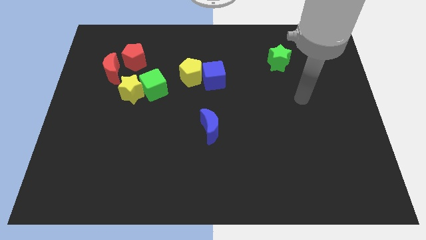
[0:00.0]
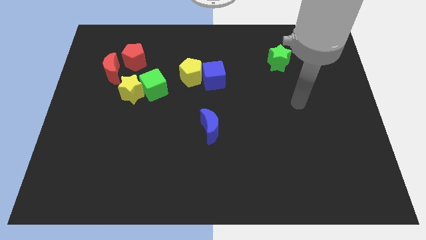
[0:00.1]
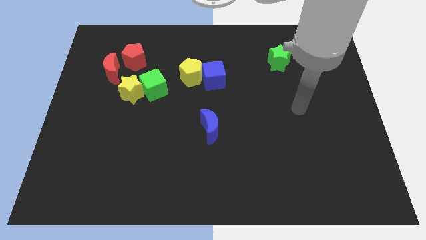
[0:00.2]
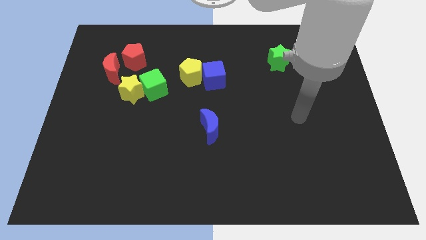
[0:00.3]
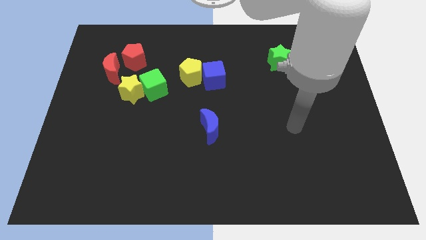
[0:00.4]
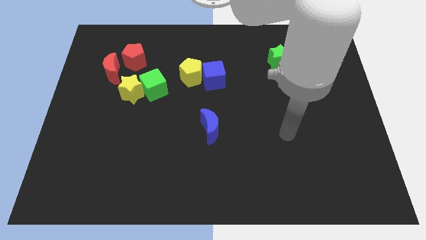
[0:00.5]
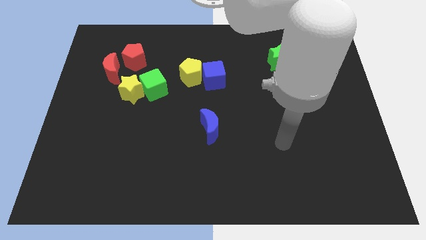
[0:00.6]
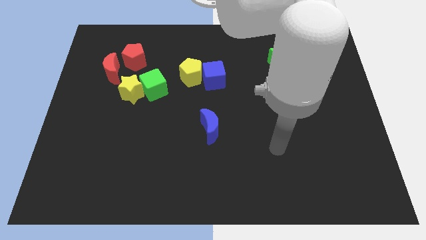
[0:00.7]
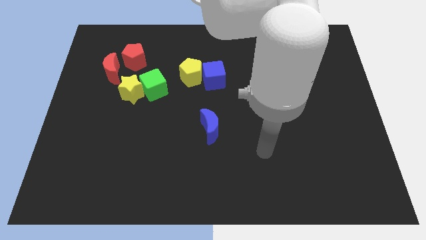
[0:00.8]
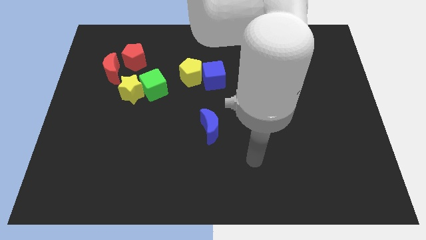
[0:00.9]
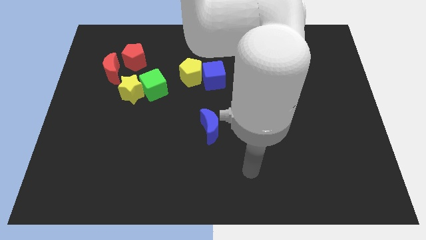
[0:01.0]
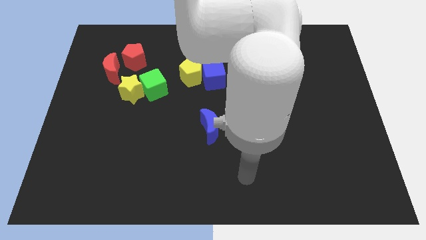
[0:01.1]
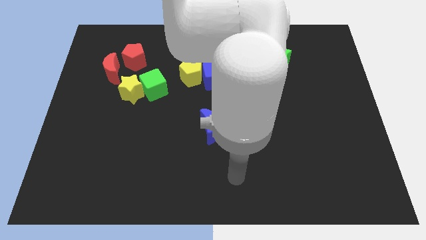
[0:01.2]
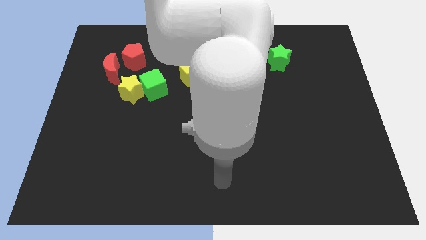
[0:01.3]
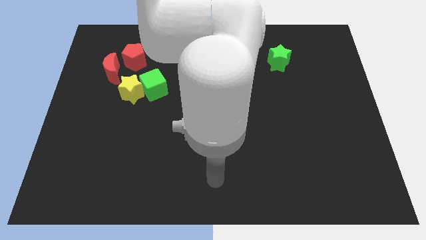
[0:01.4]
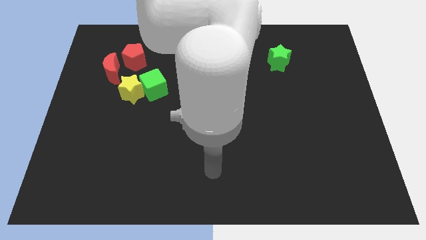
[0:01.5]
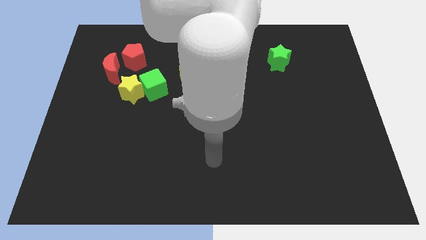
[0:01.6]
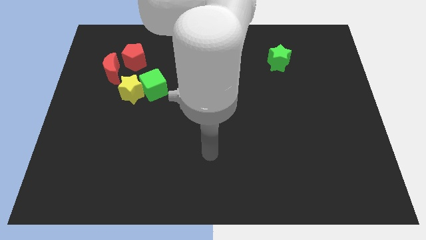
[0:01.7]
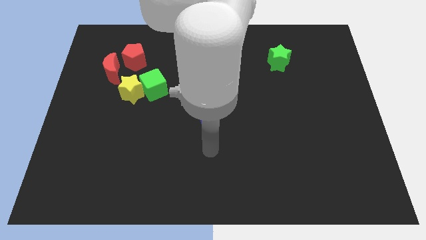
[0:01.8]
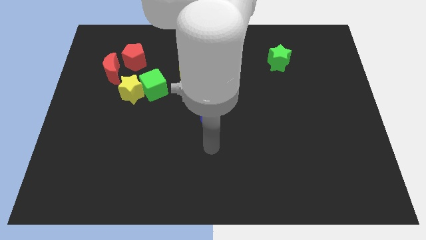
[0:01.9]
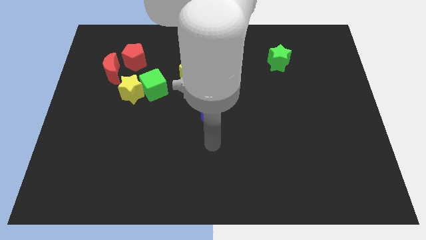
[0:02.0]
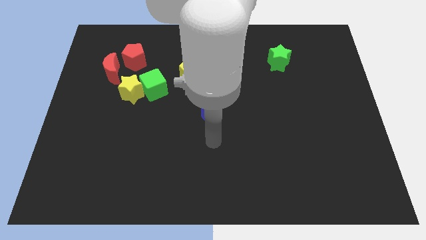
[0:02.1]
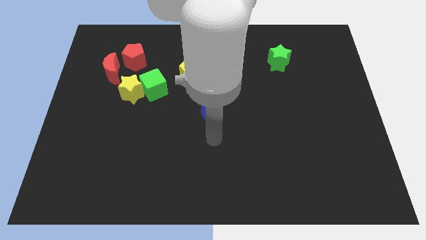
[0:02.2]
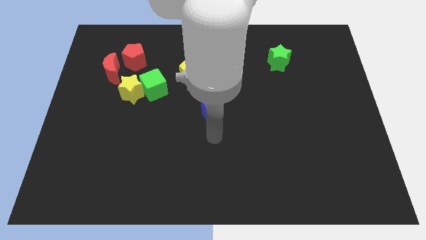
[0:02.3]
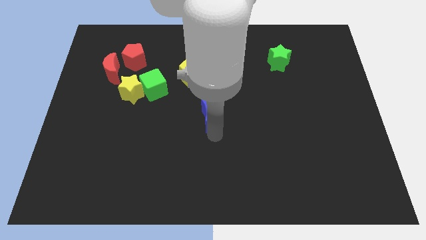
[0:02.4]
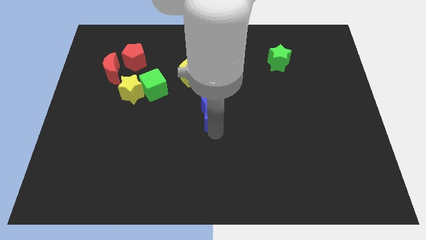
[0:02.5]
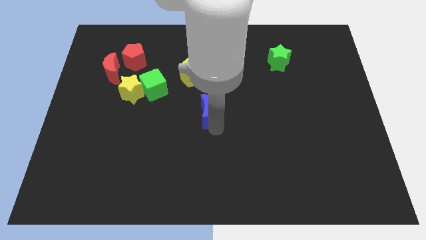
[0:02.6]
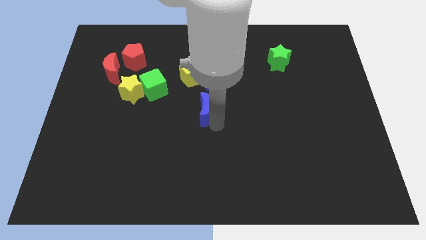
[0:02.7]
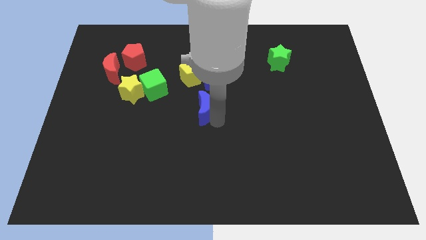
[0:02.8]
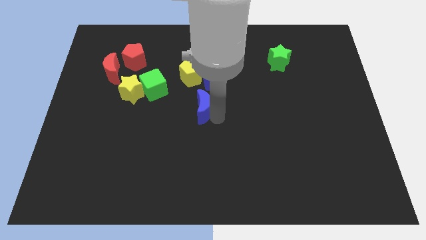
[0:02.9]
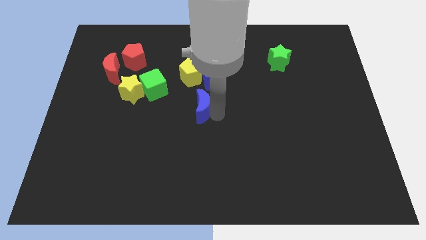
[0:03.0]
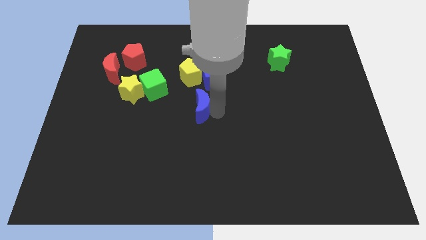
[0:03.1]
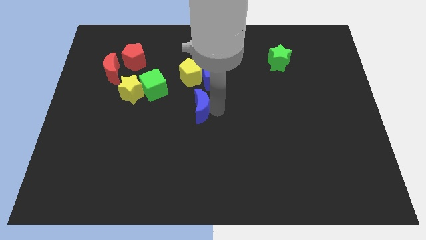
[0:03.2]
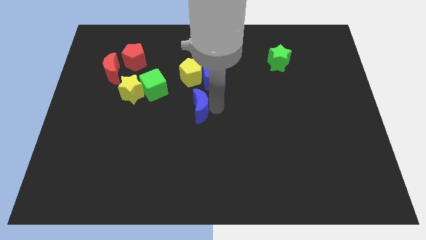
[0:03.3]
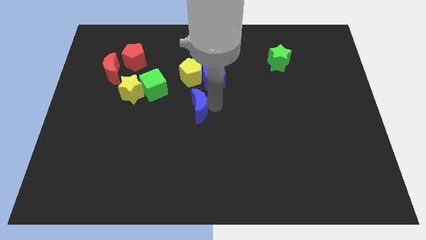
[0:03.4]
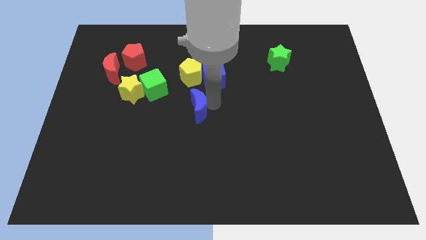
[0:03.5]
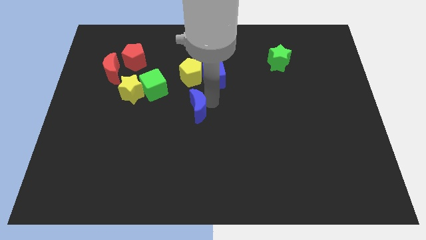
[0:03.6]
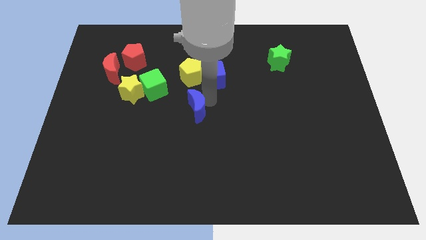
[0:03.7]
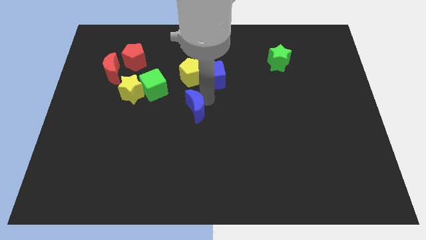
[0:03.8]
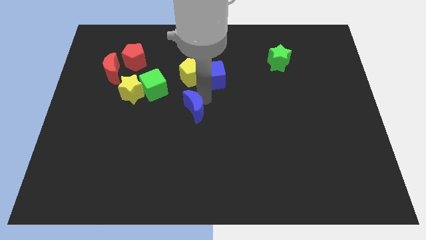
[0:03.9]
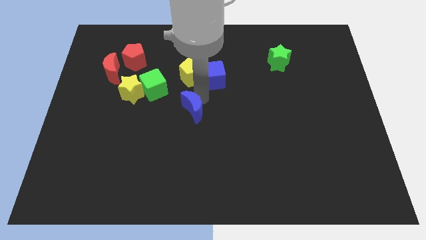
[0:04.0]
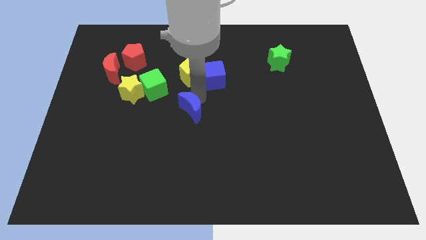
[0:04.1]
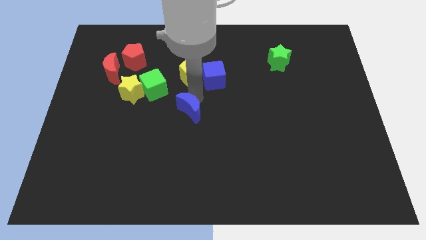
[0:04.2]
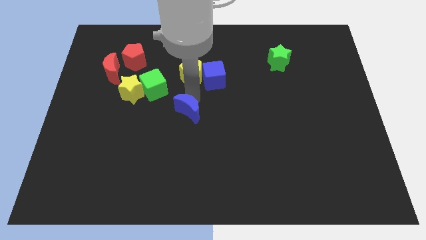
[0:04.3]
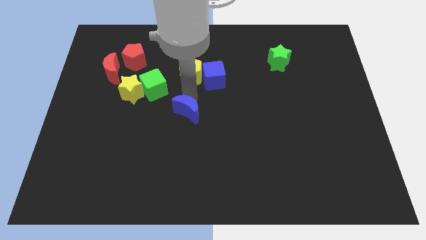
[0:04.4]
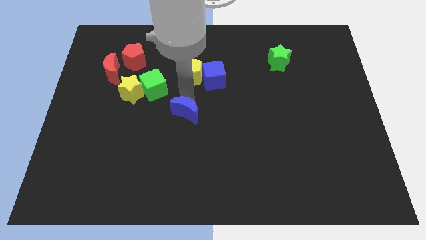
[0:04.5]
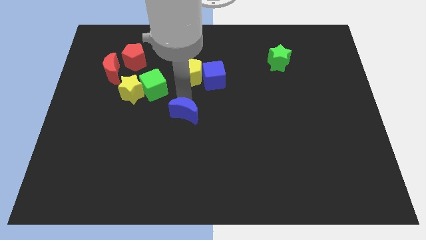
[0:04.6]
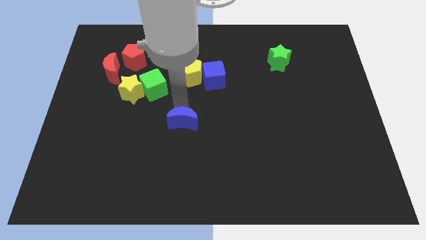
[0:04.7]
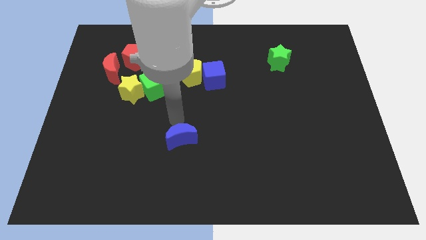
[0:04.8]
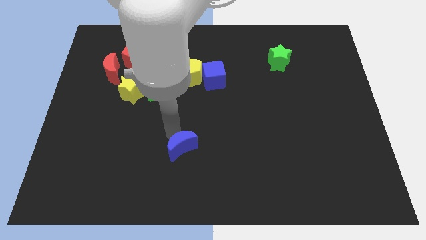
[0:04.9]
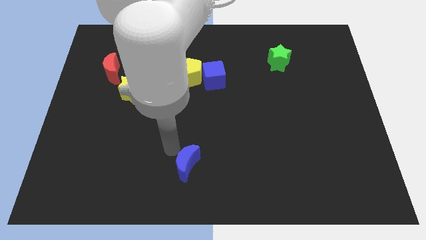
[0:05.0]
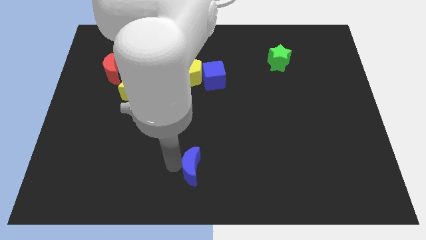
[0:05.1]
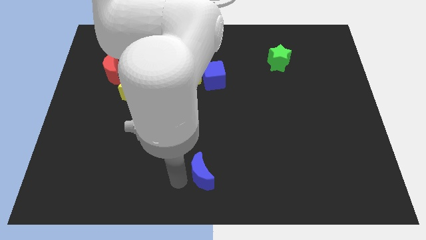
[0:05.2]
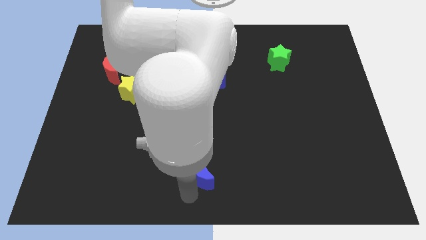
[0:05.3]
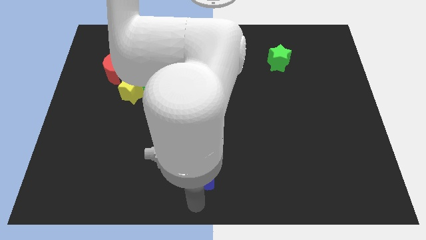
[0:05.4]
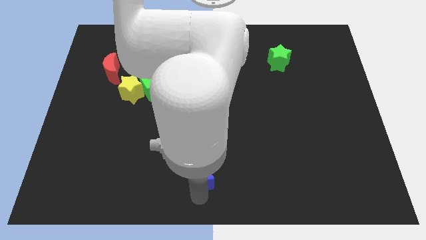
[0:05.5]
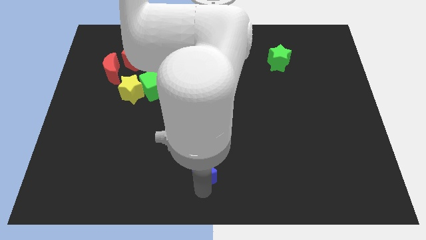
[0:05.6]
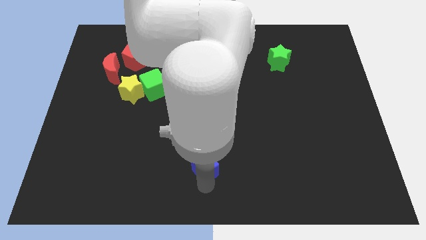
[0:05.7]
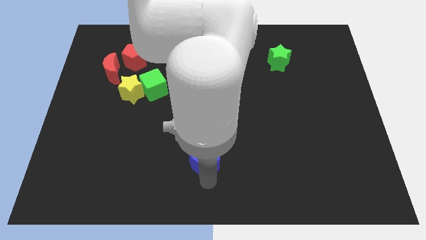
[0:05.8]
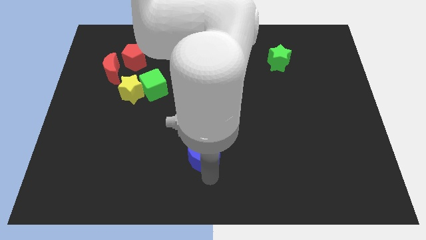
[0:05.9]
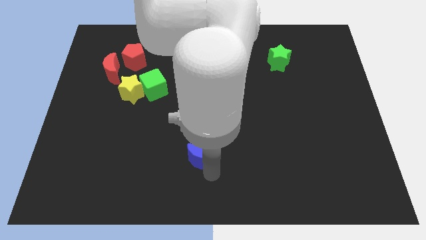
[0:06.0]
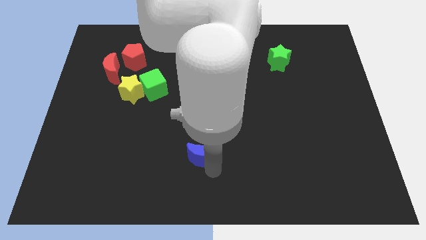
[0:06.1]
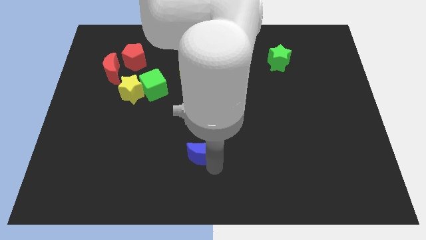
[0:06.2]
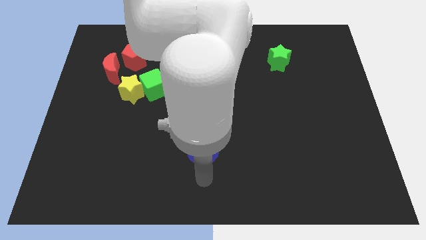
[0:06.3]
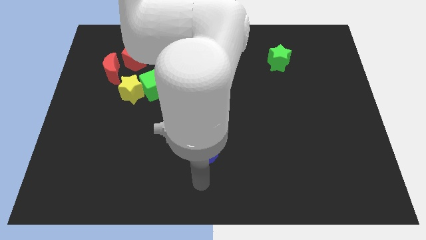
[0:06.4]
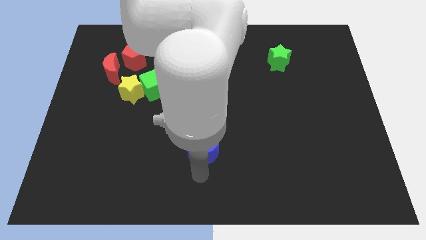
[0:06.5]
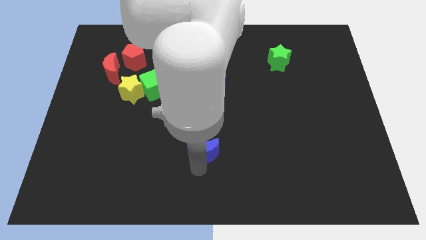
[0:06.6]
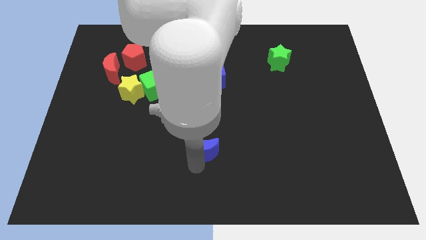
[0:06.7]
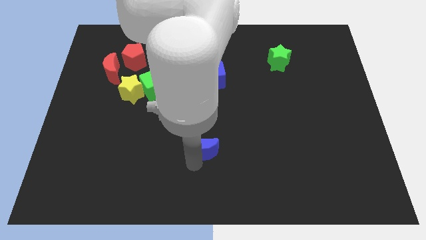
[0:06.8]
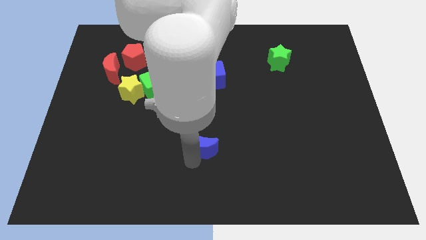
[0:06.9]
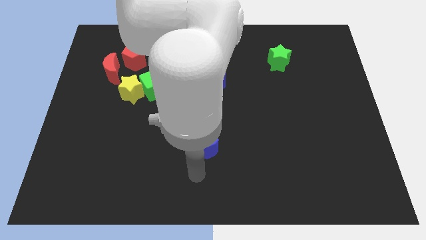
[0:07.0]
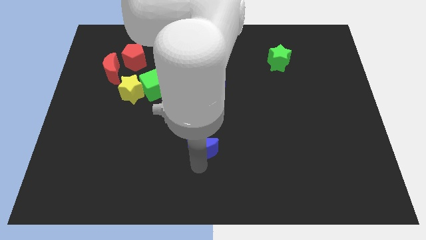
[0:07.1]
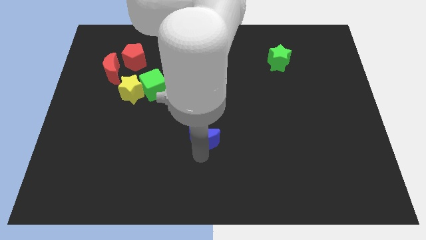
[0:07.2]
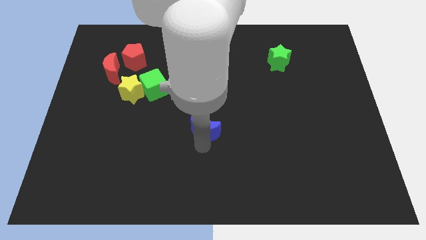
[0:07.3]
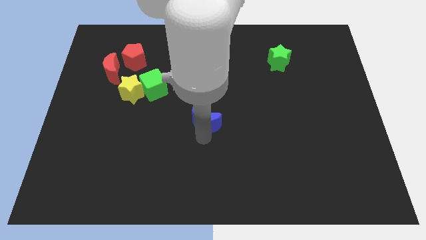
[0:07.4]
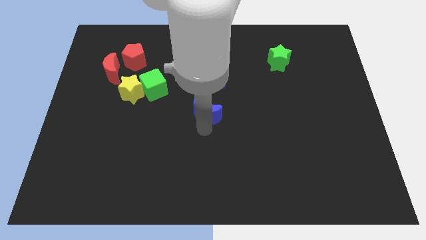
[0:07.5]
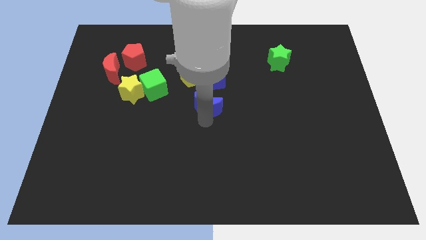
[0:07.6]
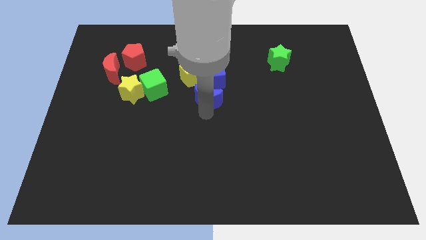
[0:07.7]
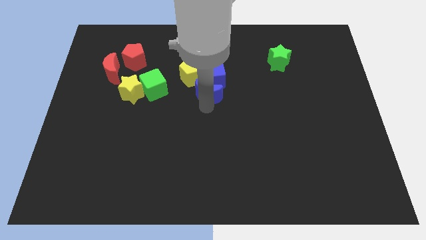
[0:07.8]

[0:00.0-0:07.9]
move the blue moon to the blue cube
